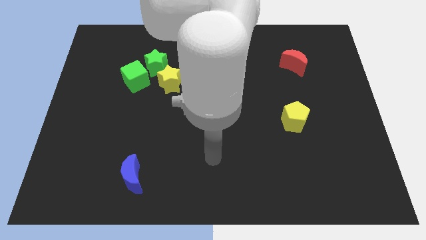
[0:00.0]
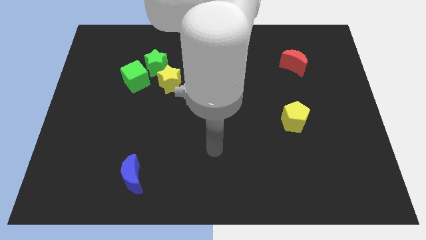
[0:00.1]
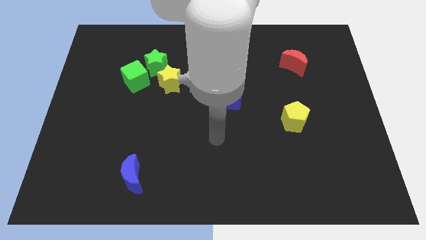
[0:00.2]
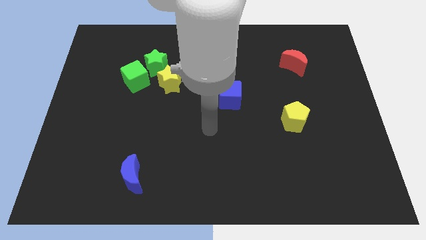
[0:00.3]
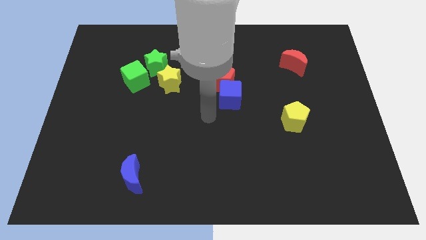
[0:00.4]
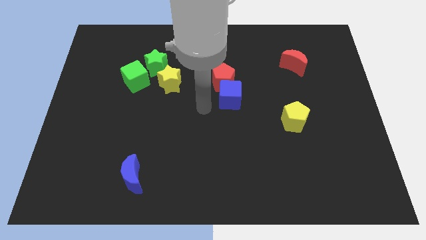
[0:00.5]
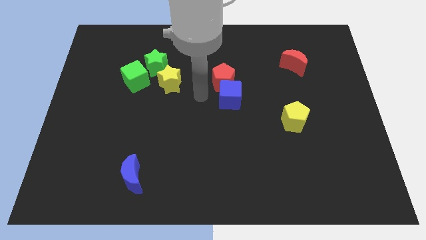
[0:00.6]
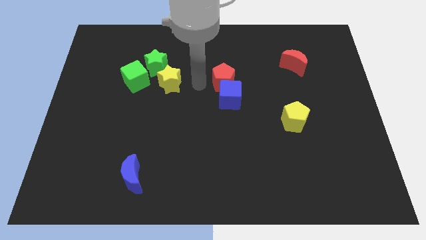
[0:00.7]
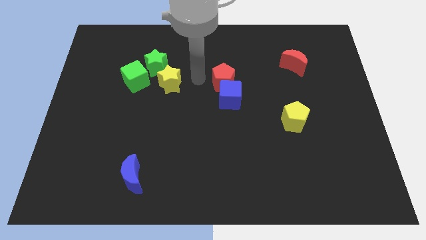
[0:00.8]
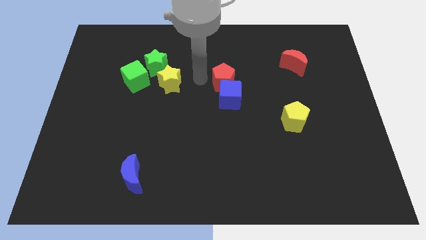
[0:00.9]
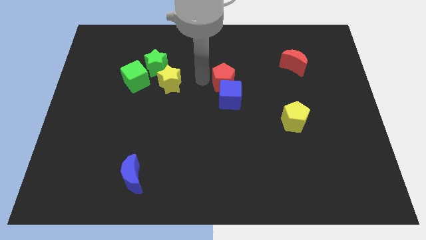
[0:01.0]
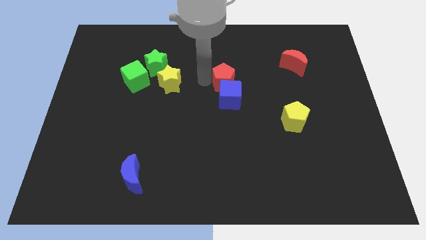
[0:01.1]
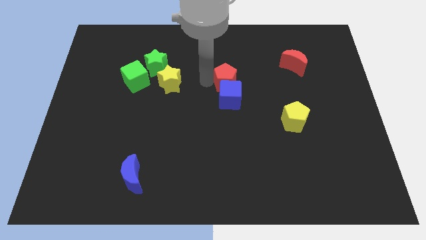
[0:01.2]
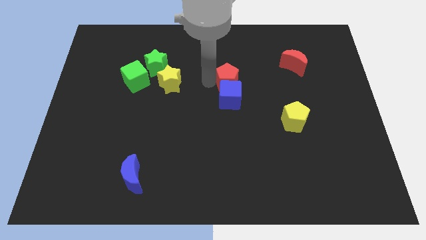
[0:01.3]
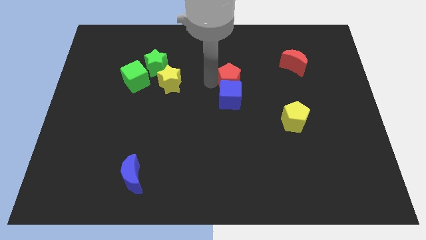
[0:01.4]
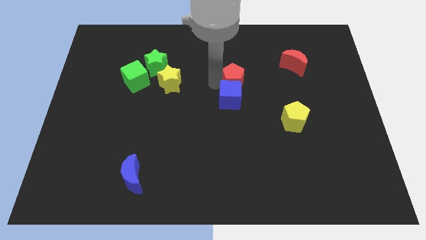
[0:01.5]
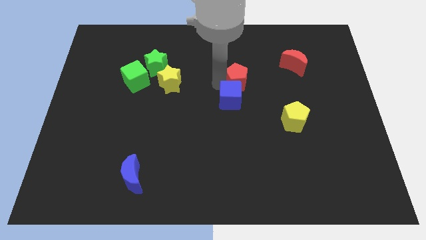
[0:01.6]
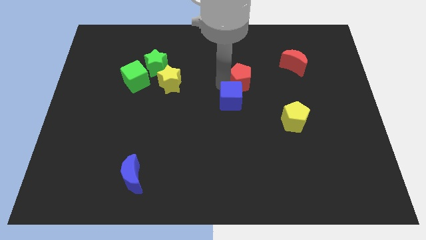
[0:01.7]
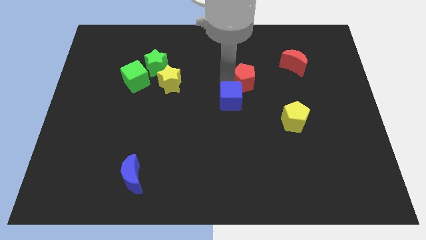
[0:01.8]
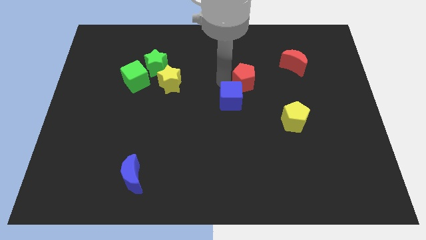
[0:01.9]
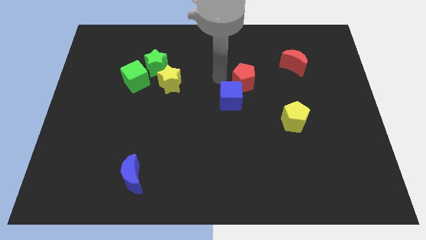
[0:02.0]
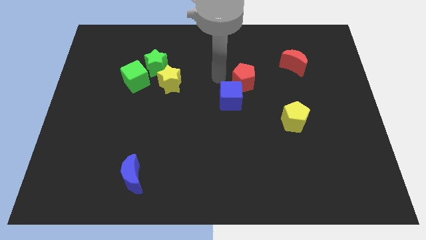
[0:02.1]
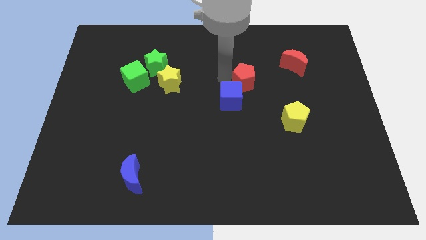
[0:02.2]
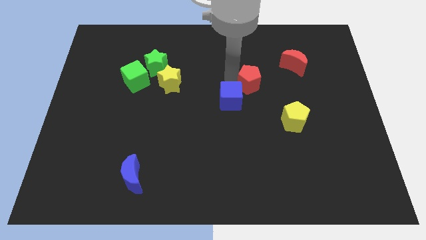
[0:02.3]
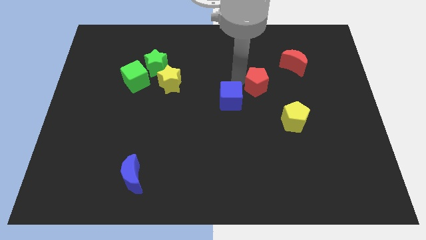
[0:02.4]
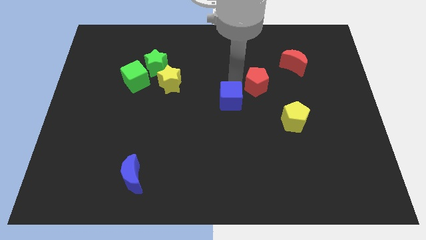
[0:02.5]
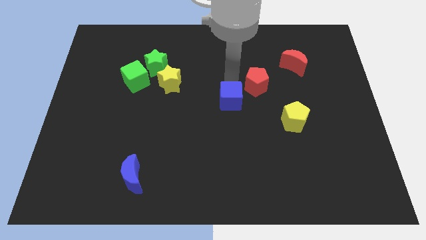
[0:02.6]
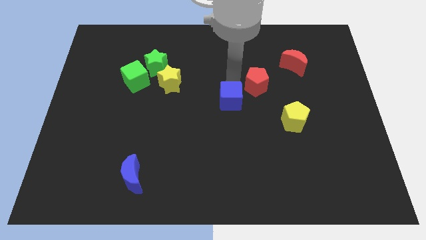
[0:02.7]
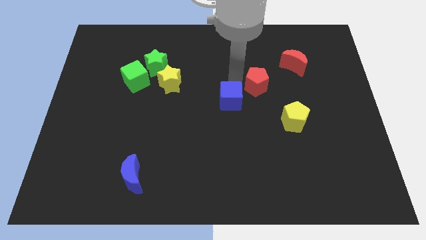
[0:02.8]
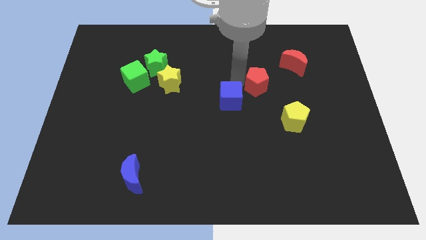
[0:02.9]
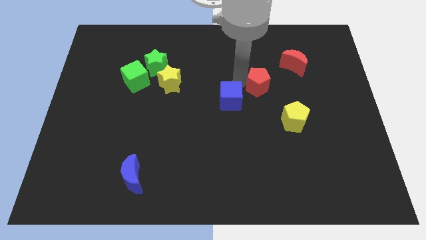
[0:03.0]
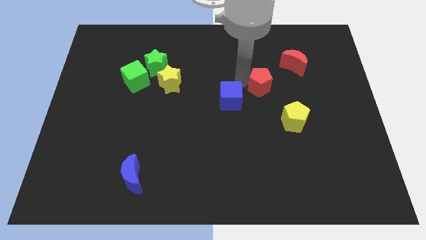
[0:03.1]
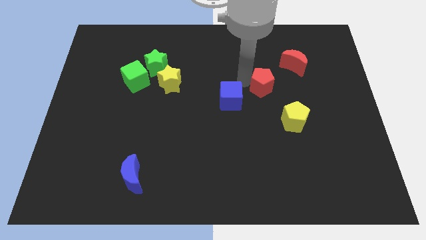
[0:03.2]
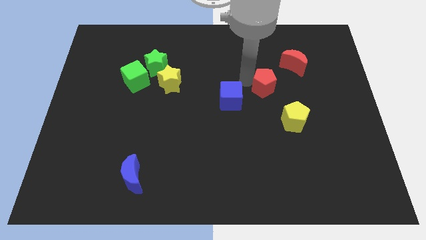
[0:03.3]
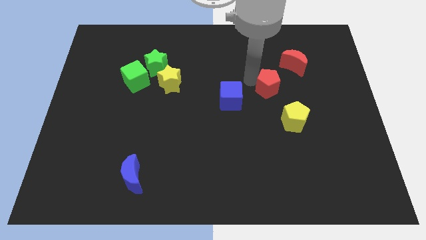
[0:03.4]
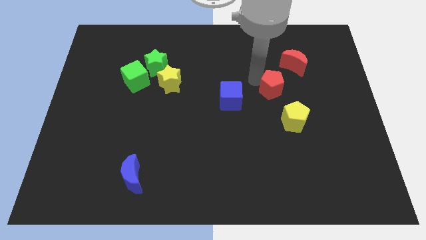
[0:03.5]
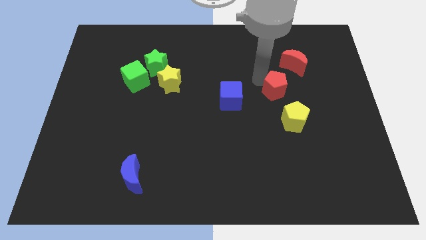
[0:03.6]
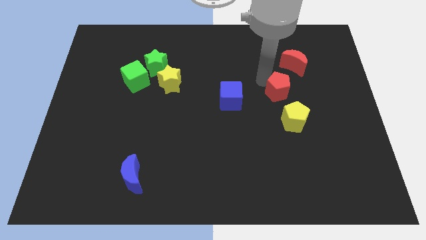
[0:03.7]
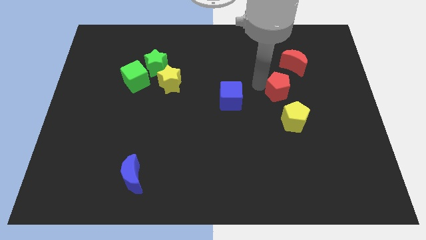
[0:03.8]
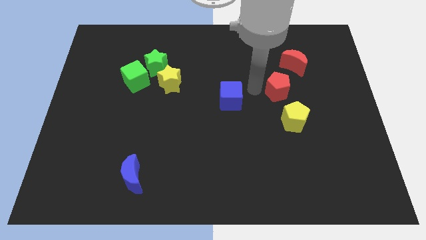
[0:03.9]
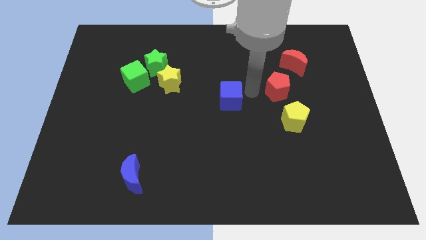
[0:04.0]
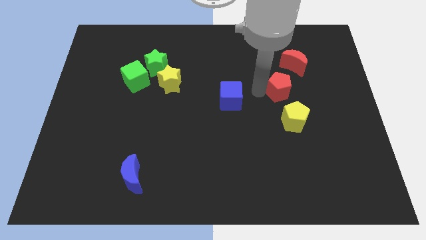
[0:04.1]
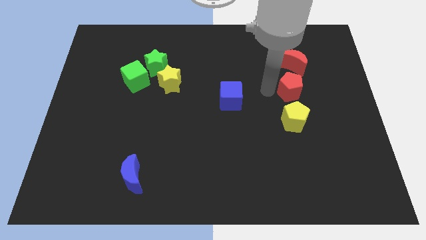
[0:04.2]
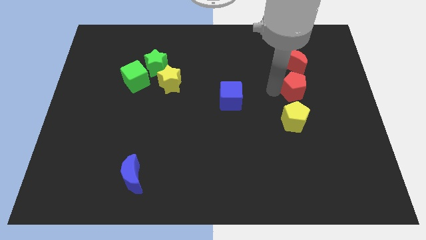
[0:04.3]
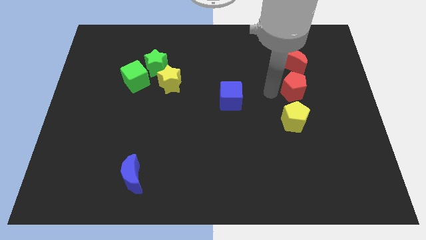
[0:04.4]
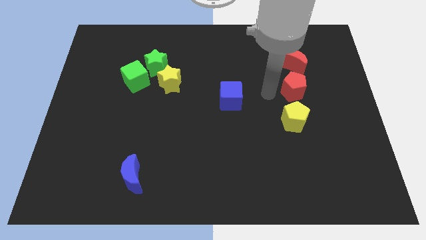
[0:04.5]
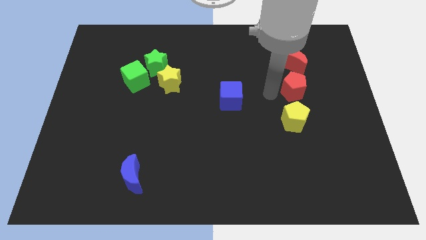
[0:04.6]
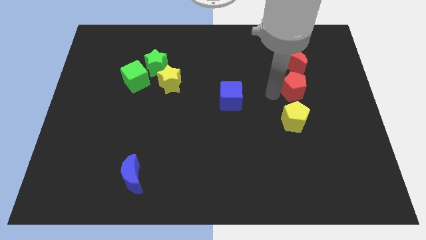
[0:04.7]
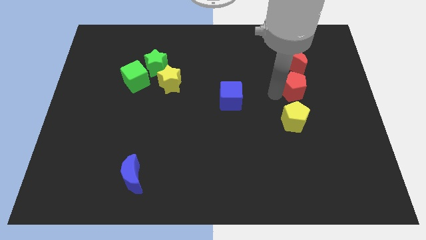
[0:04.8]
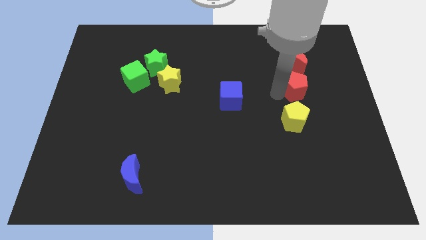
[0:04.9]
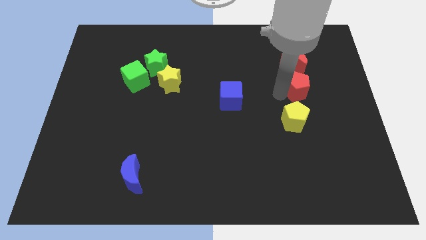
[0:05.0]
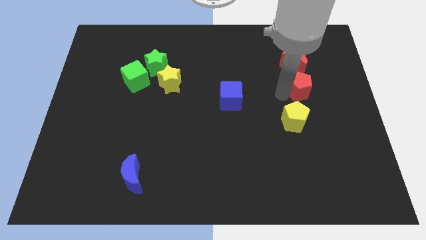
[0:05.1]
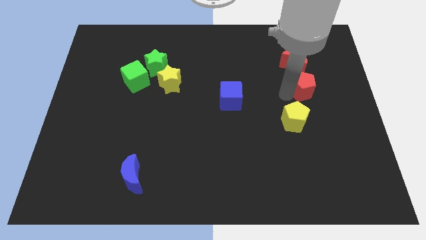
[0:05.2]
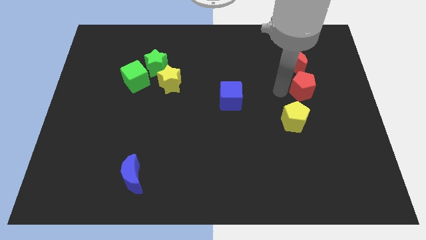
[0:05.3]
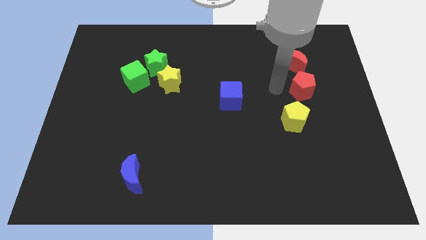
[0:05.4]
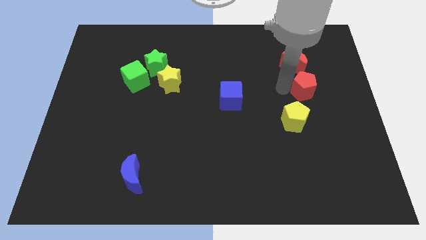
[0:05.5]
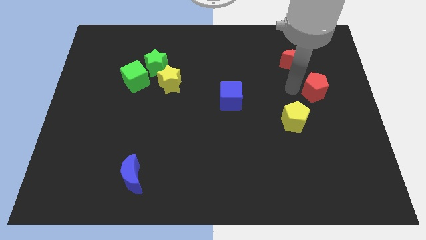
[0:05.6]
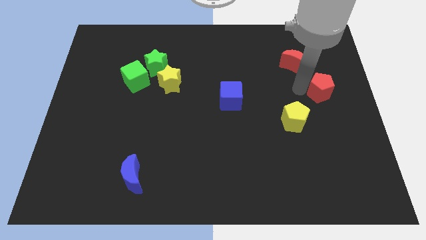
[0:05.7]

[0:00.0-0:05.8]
put the red pentagon to the right side of the board

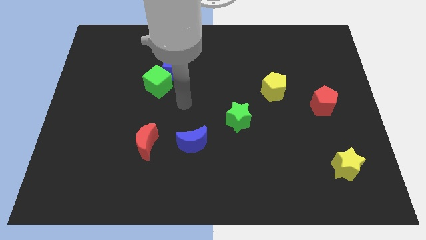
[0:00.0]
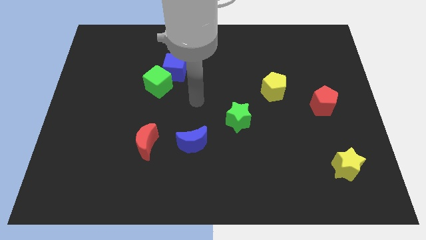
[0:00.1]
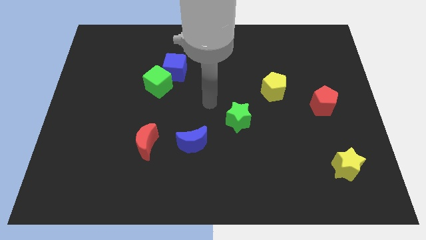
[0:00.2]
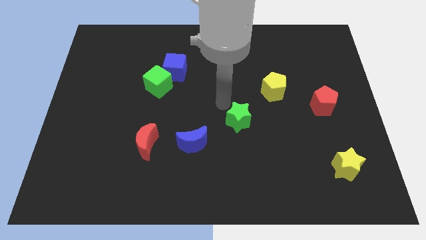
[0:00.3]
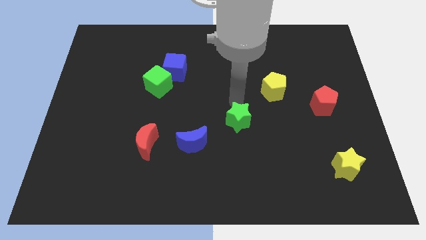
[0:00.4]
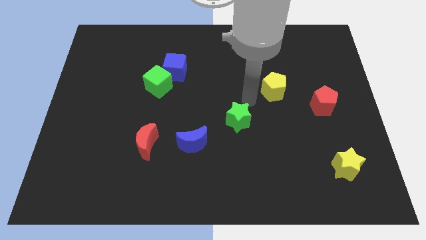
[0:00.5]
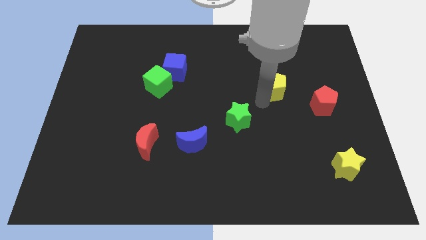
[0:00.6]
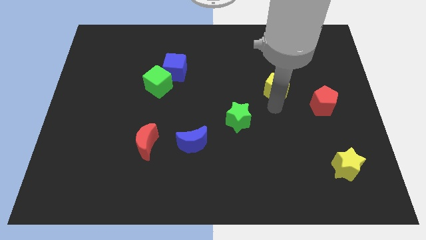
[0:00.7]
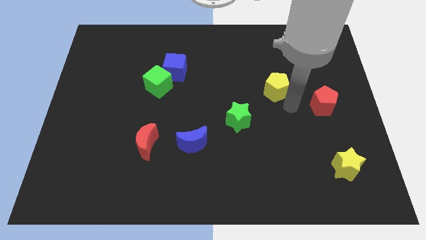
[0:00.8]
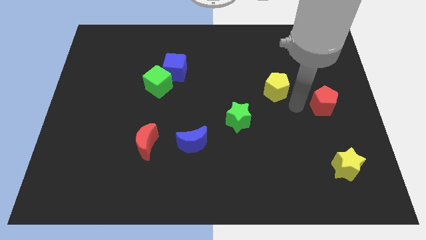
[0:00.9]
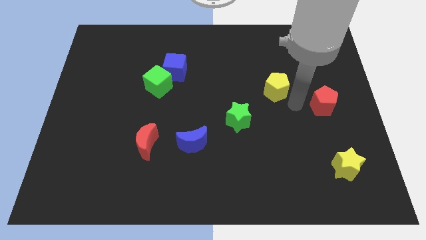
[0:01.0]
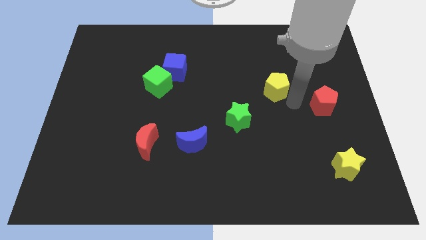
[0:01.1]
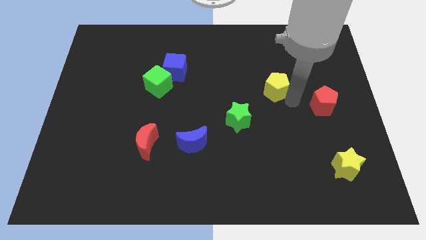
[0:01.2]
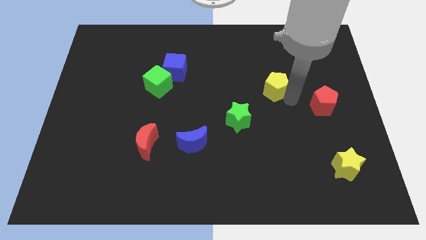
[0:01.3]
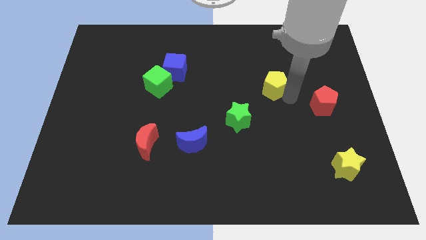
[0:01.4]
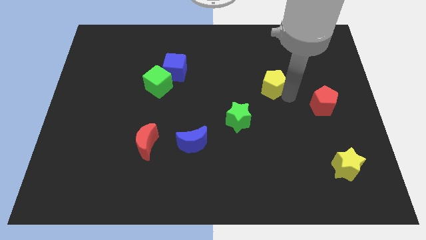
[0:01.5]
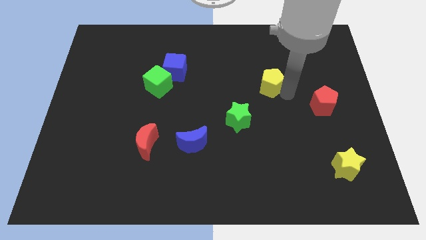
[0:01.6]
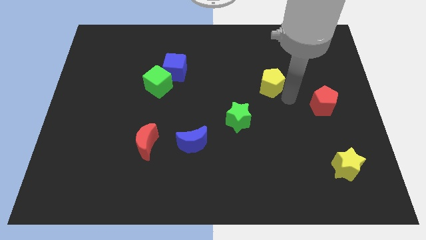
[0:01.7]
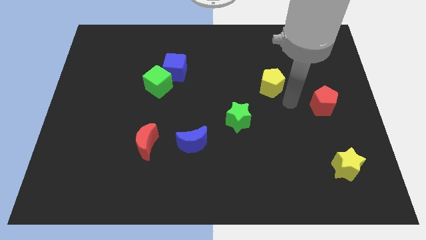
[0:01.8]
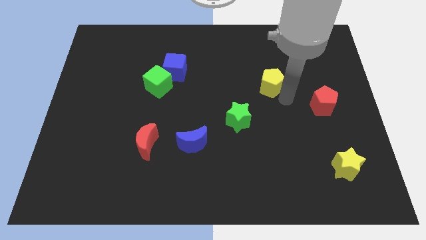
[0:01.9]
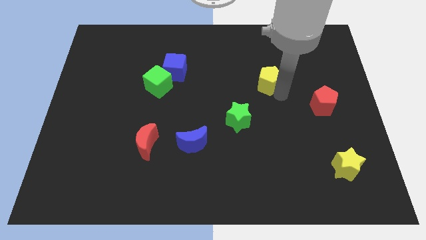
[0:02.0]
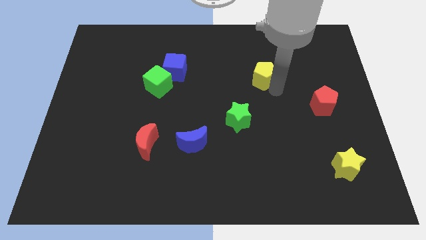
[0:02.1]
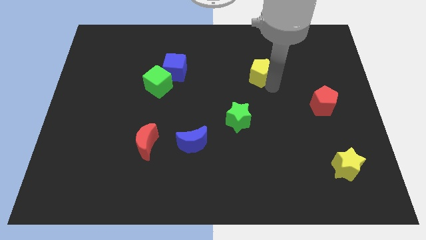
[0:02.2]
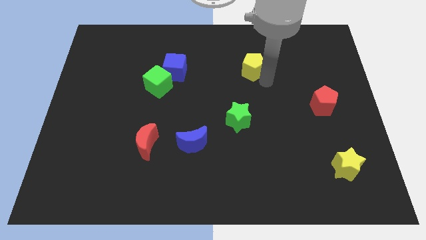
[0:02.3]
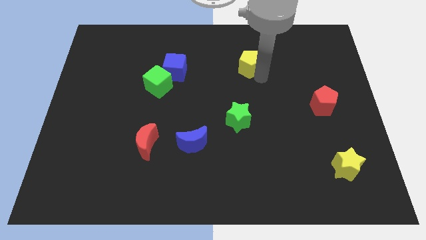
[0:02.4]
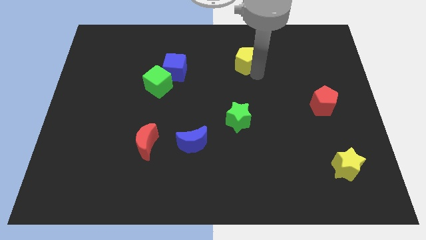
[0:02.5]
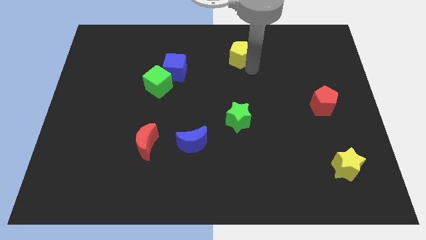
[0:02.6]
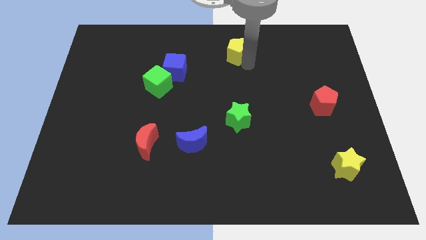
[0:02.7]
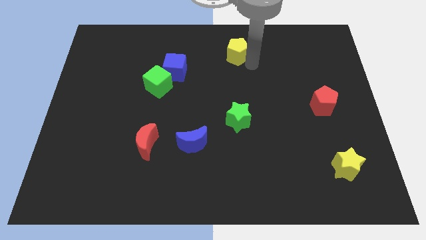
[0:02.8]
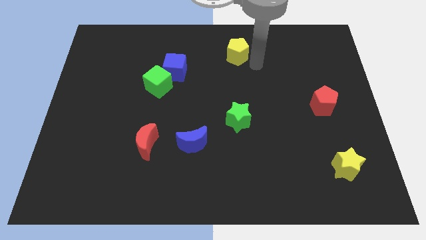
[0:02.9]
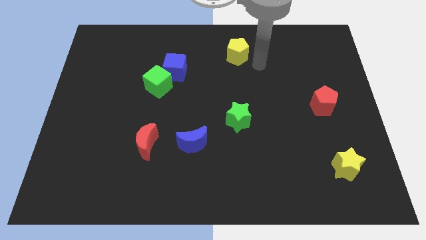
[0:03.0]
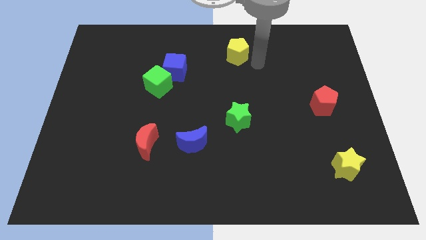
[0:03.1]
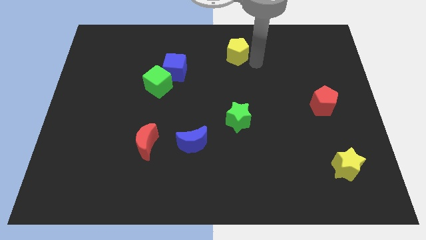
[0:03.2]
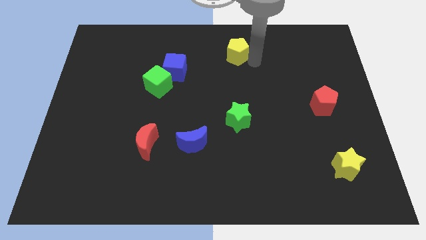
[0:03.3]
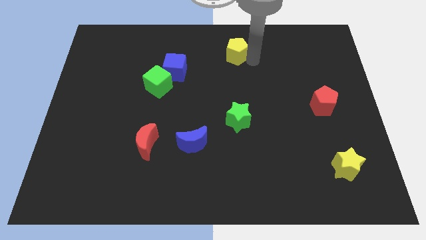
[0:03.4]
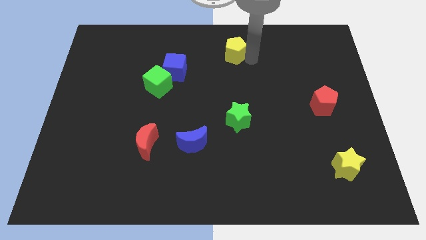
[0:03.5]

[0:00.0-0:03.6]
slide the yellow pentagon to the towards your base
